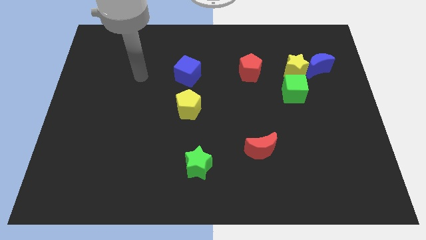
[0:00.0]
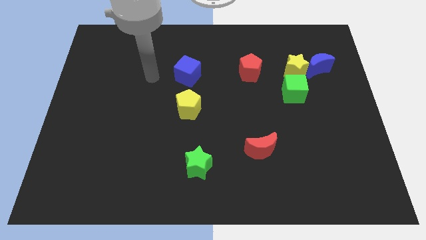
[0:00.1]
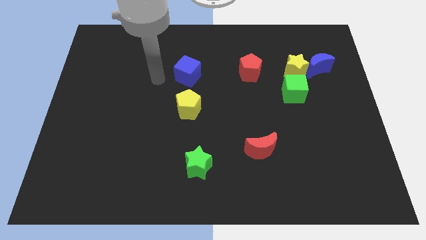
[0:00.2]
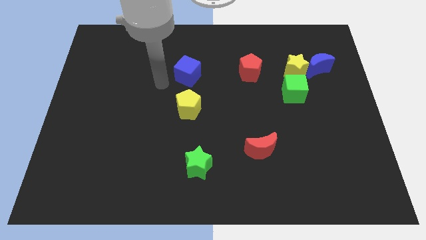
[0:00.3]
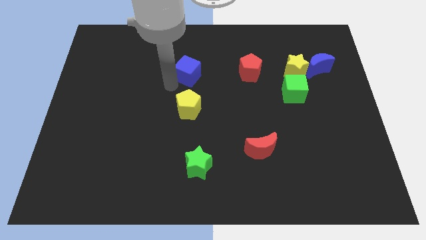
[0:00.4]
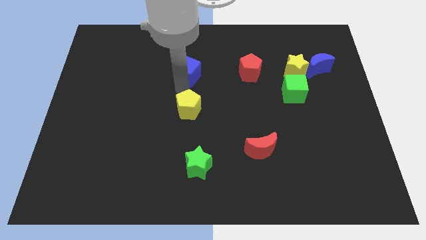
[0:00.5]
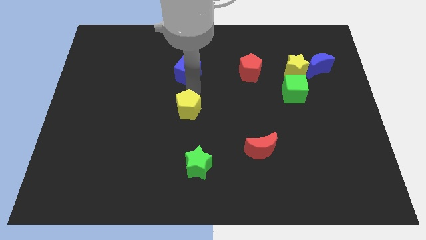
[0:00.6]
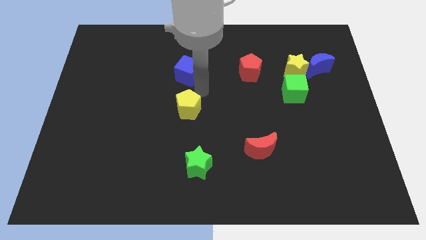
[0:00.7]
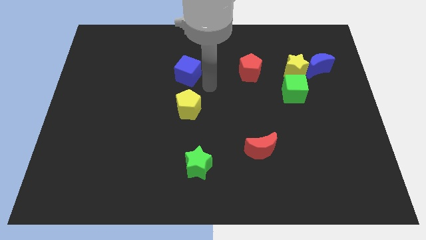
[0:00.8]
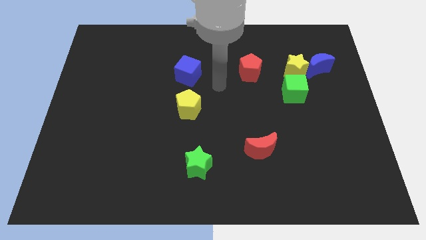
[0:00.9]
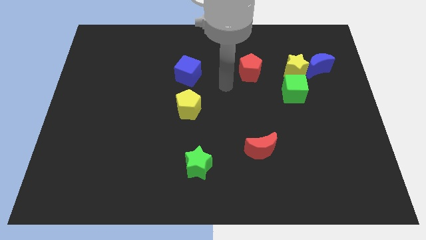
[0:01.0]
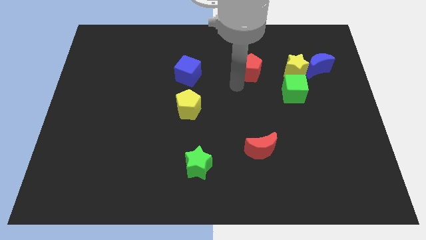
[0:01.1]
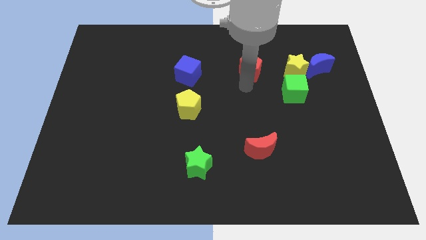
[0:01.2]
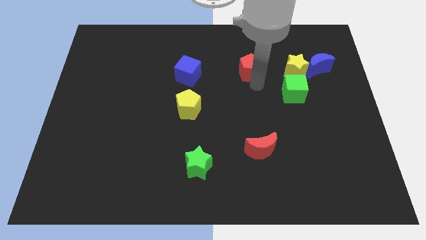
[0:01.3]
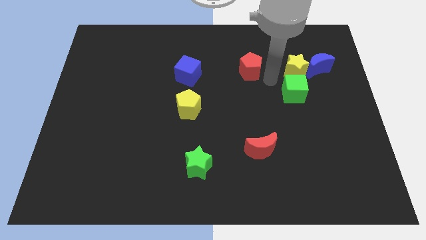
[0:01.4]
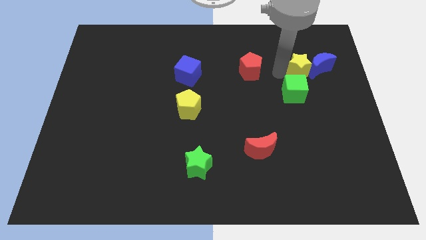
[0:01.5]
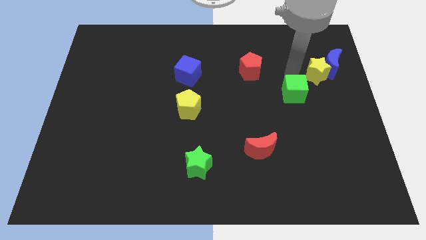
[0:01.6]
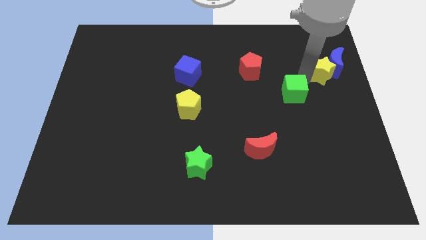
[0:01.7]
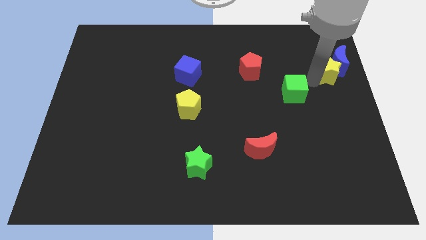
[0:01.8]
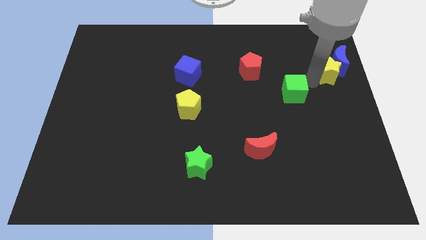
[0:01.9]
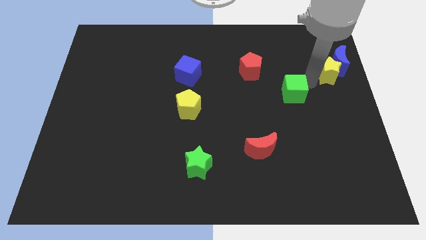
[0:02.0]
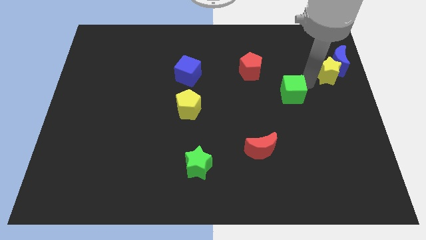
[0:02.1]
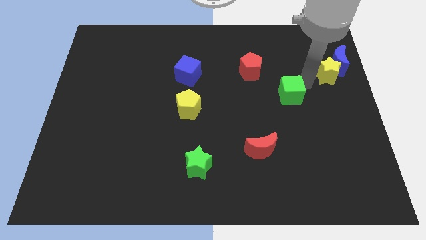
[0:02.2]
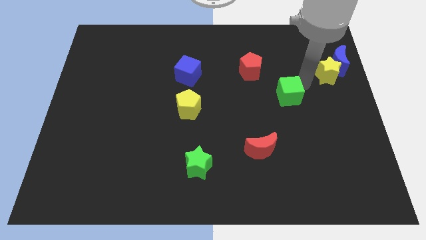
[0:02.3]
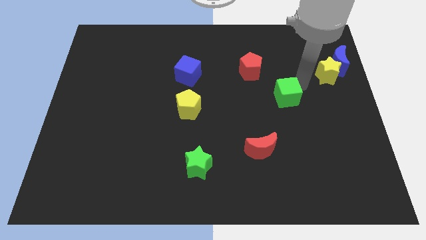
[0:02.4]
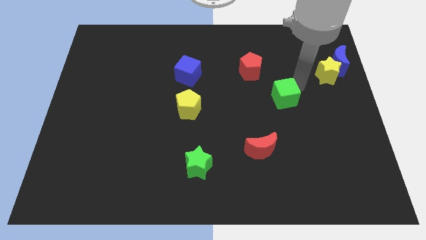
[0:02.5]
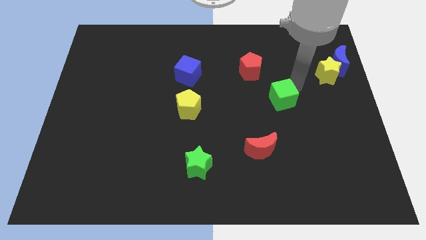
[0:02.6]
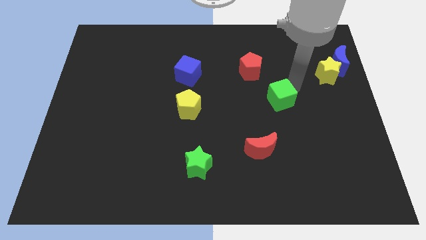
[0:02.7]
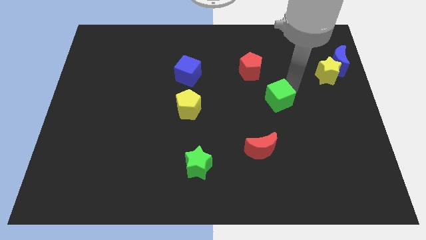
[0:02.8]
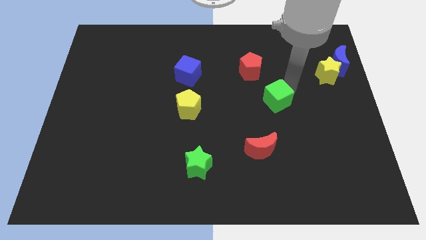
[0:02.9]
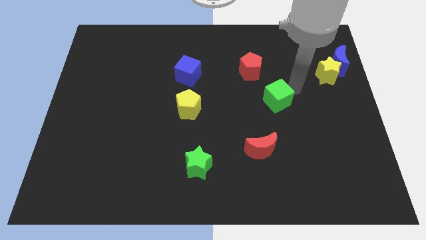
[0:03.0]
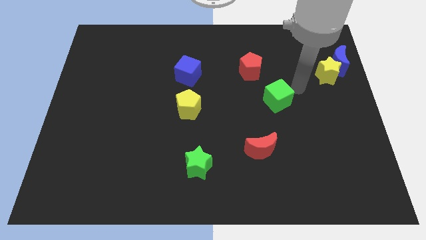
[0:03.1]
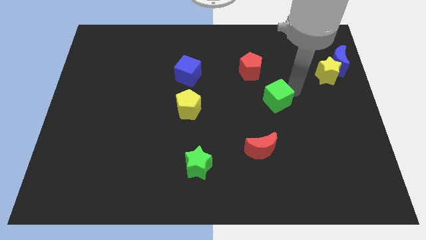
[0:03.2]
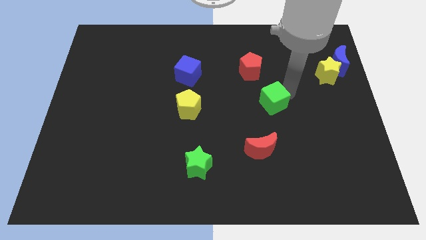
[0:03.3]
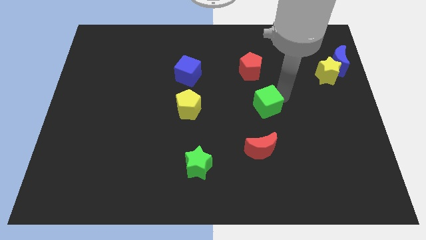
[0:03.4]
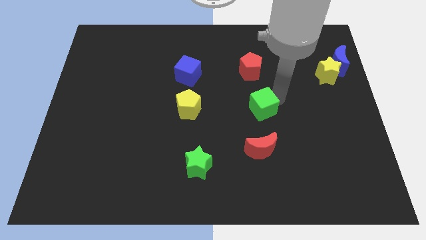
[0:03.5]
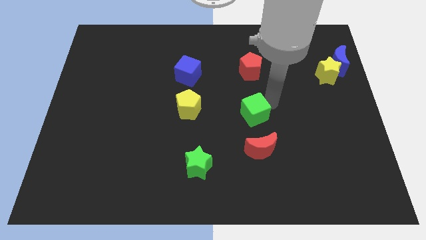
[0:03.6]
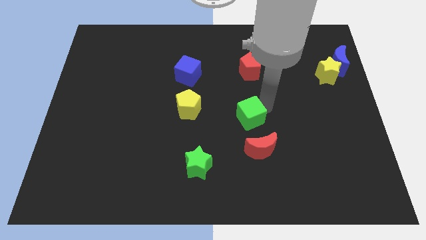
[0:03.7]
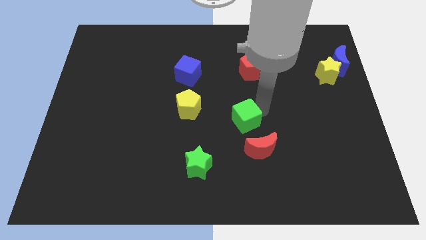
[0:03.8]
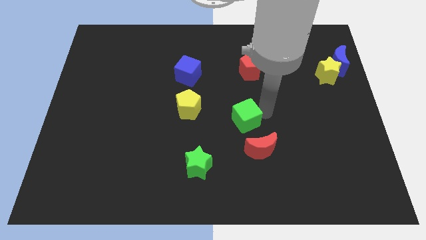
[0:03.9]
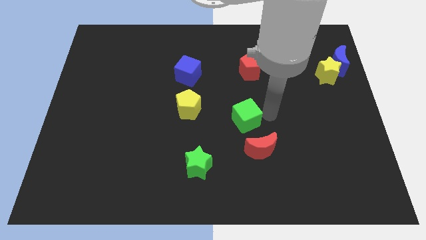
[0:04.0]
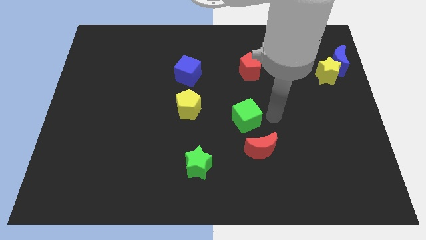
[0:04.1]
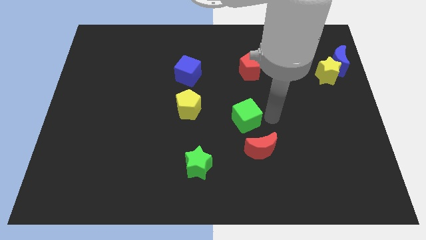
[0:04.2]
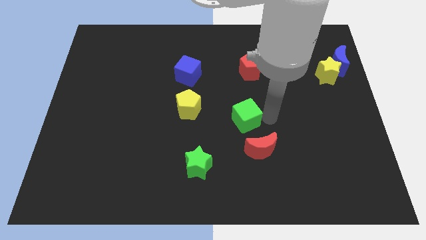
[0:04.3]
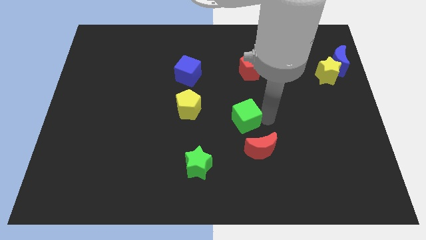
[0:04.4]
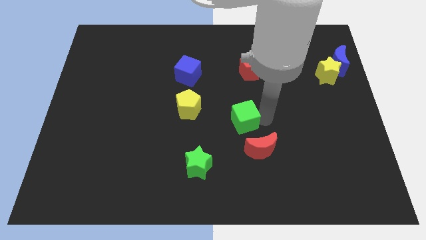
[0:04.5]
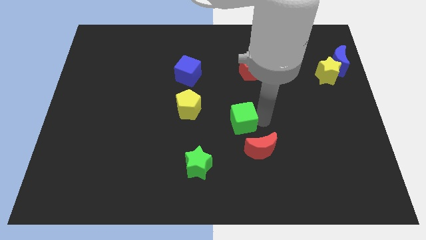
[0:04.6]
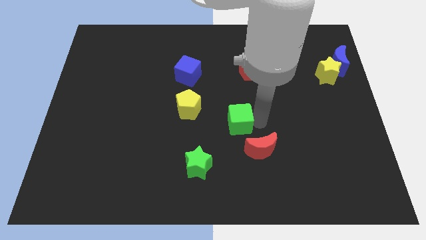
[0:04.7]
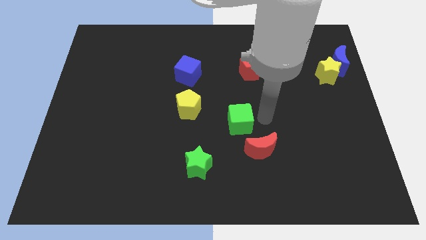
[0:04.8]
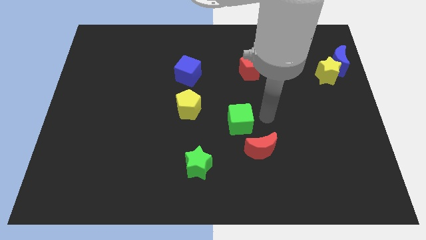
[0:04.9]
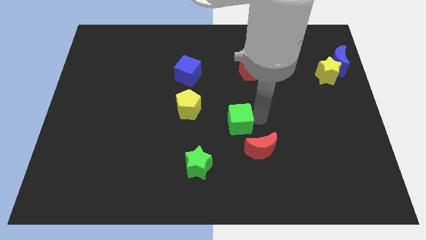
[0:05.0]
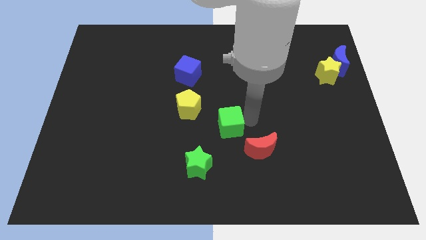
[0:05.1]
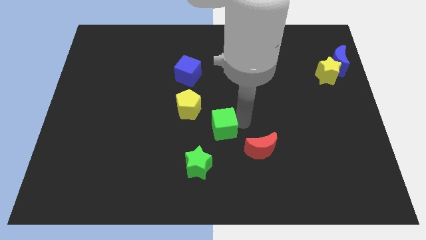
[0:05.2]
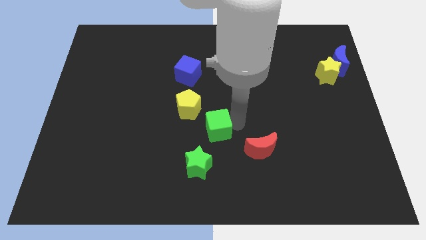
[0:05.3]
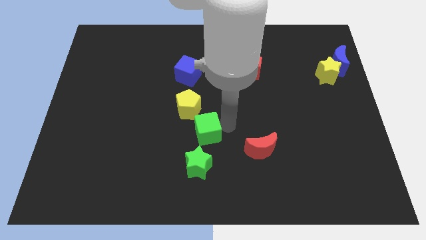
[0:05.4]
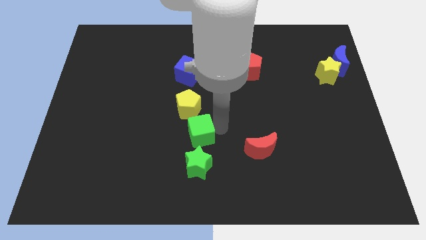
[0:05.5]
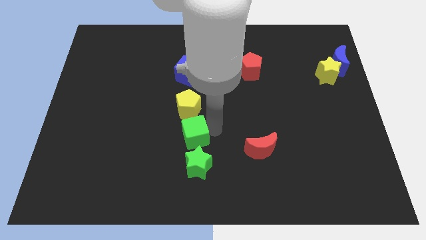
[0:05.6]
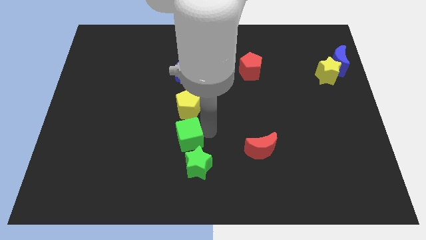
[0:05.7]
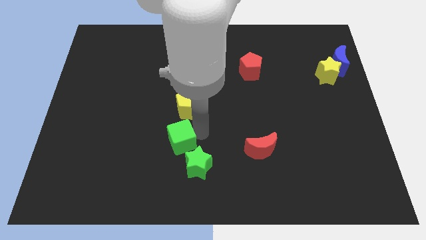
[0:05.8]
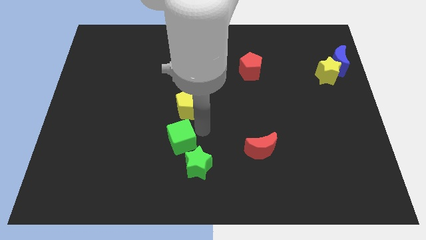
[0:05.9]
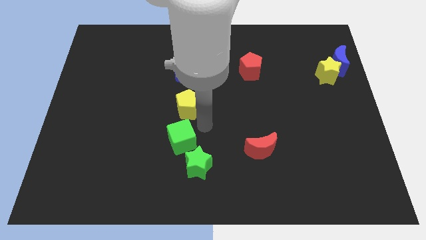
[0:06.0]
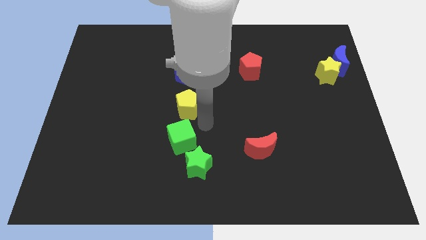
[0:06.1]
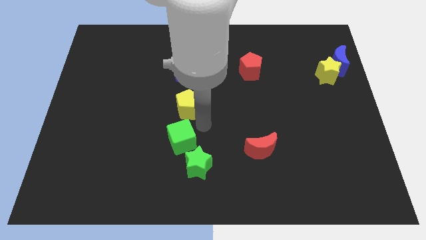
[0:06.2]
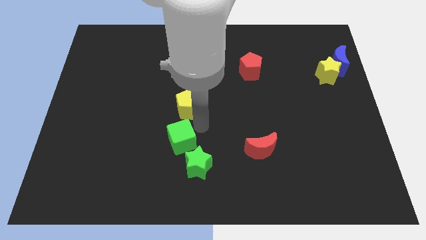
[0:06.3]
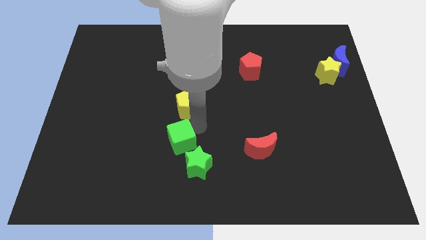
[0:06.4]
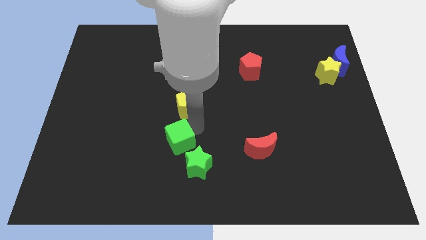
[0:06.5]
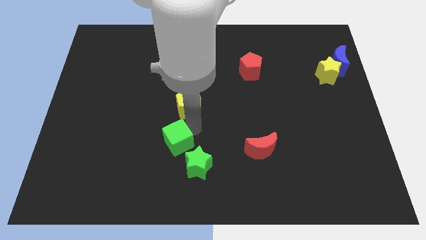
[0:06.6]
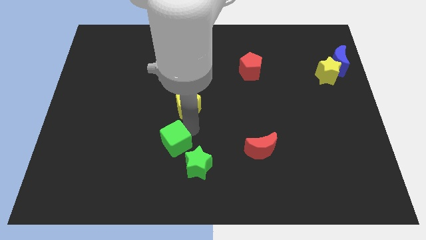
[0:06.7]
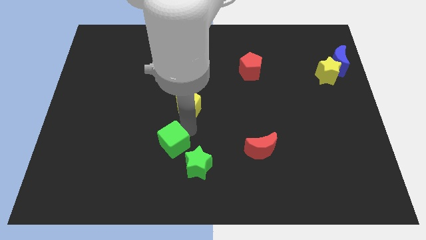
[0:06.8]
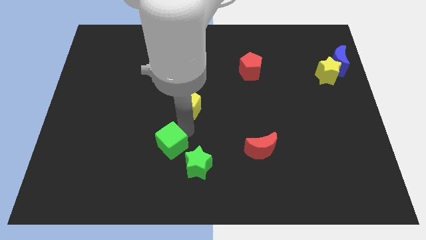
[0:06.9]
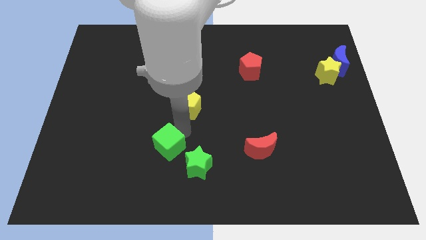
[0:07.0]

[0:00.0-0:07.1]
slide the green cube left of the green star

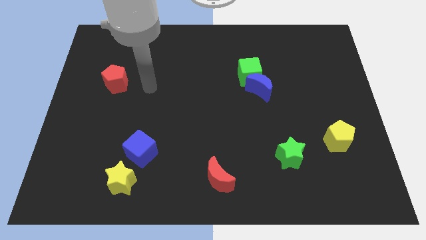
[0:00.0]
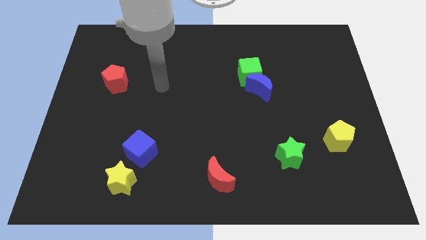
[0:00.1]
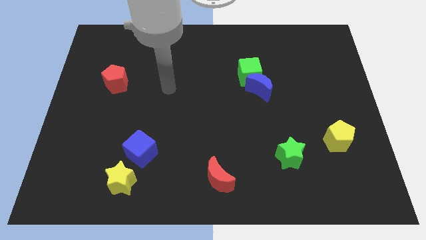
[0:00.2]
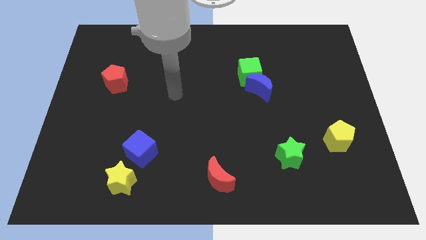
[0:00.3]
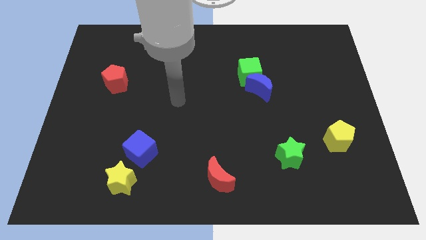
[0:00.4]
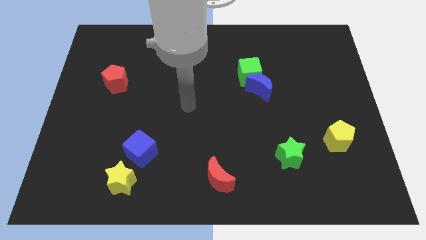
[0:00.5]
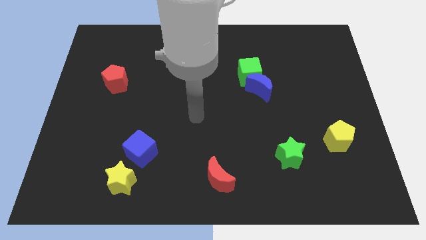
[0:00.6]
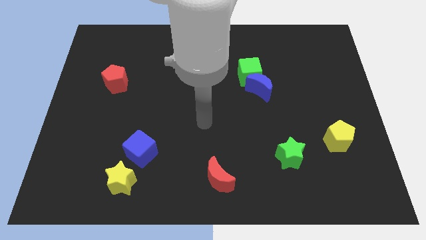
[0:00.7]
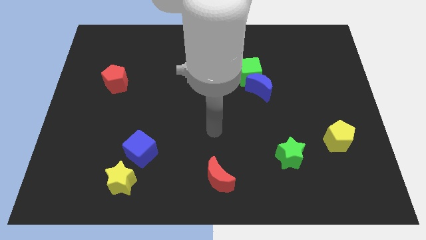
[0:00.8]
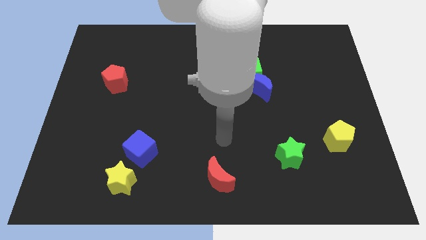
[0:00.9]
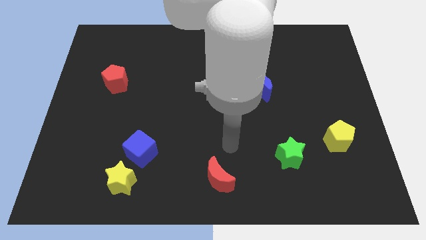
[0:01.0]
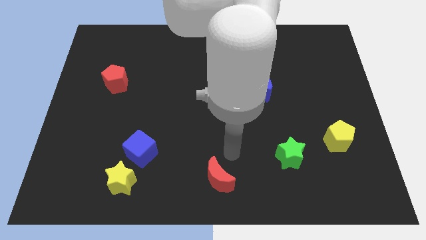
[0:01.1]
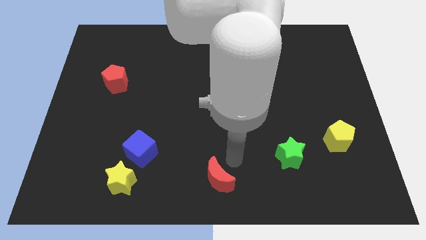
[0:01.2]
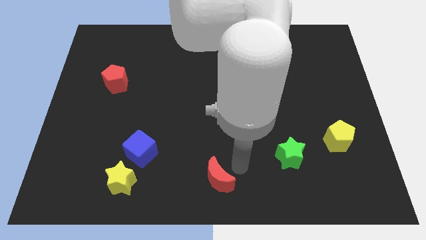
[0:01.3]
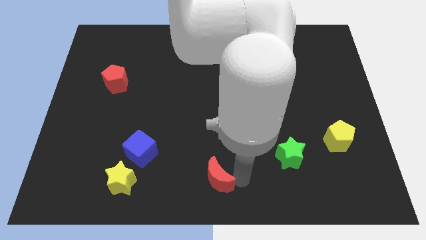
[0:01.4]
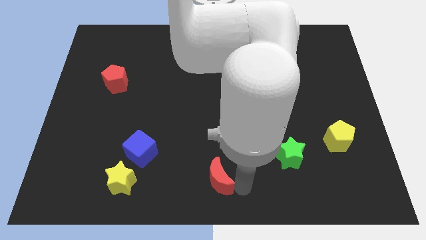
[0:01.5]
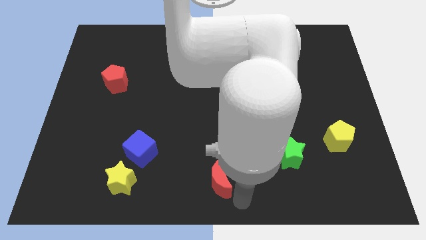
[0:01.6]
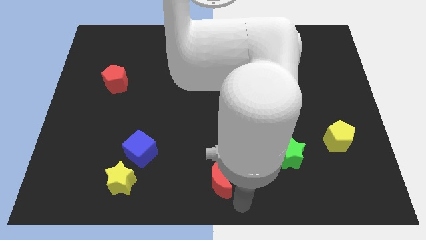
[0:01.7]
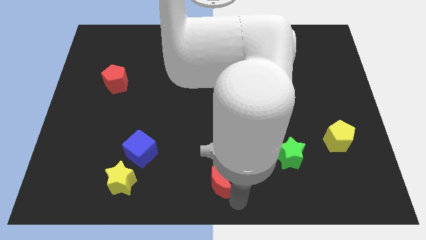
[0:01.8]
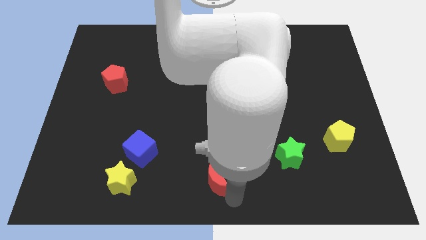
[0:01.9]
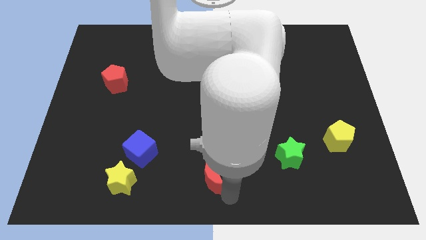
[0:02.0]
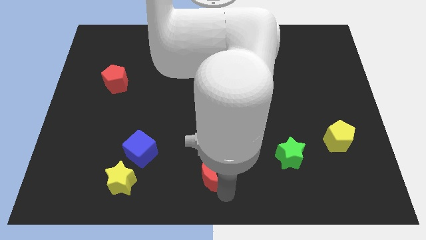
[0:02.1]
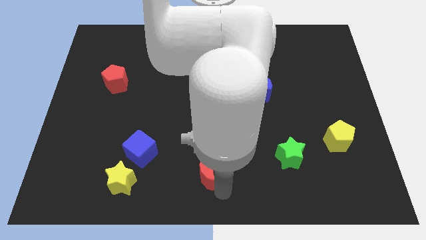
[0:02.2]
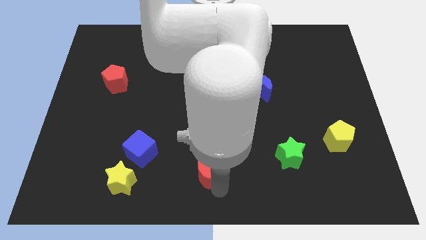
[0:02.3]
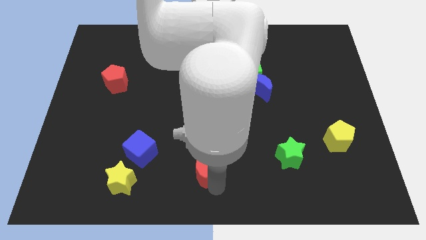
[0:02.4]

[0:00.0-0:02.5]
put the red moon right of the blue cube
